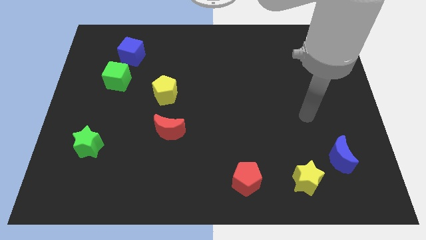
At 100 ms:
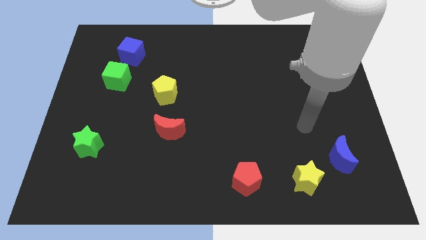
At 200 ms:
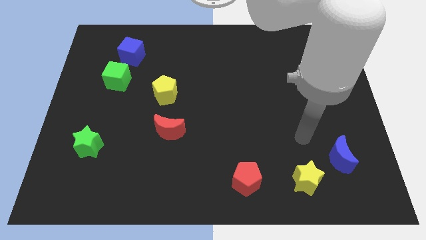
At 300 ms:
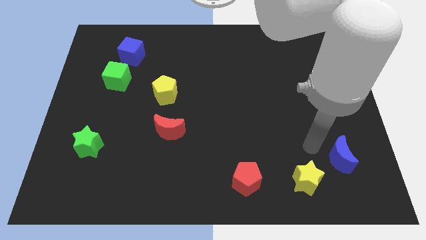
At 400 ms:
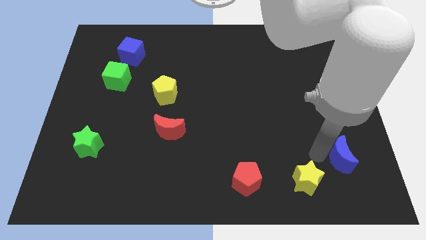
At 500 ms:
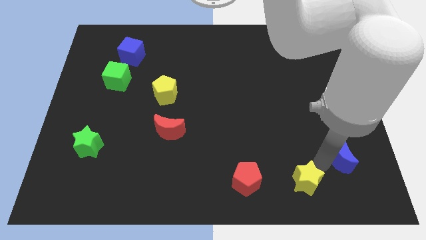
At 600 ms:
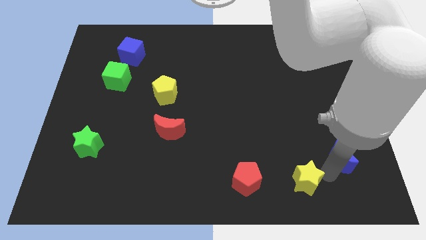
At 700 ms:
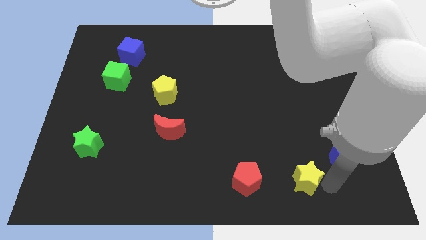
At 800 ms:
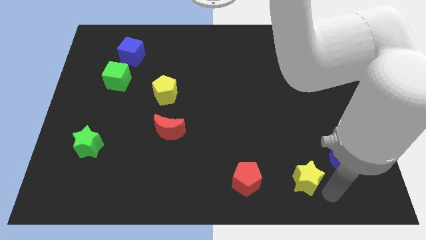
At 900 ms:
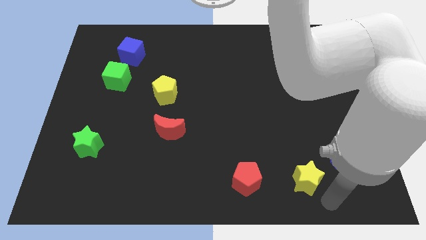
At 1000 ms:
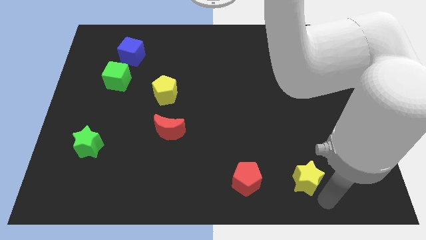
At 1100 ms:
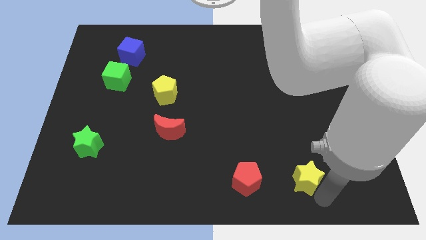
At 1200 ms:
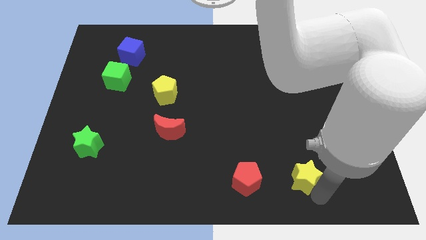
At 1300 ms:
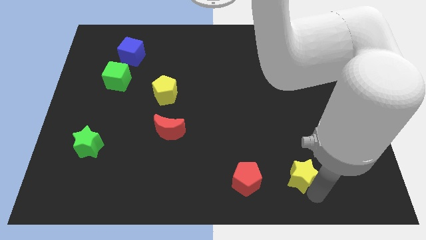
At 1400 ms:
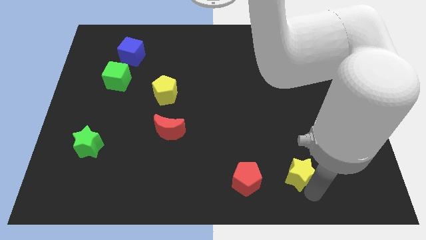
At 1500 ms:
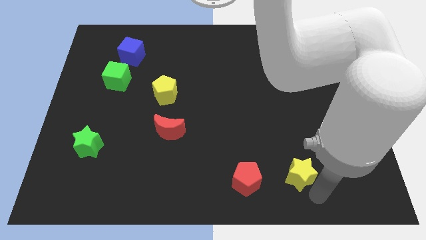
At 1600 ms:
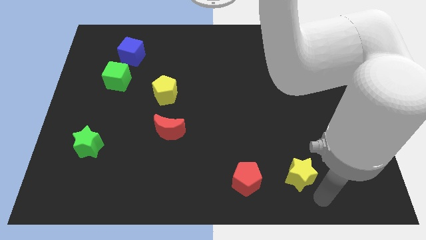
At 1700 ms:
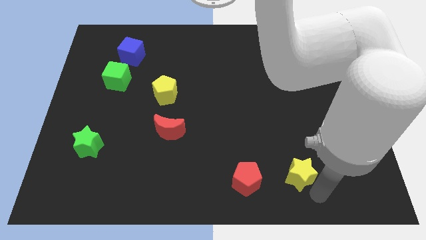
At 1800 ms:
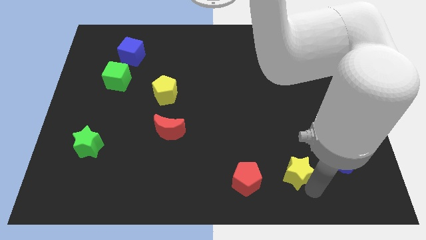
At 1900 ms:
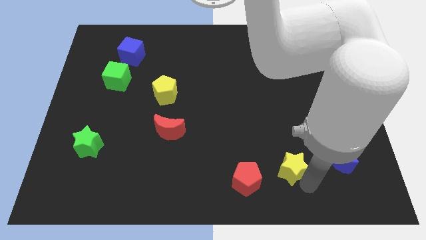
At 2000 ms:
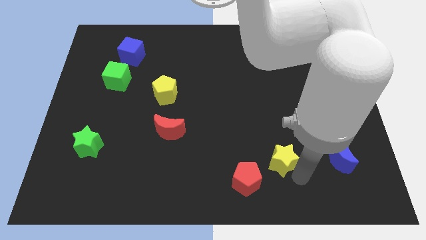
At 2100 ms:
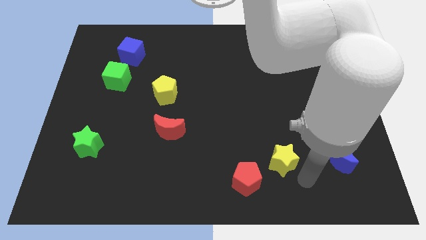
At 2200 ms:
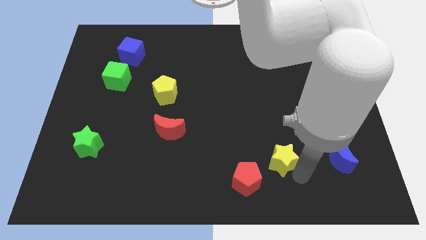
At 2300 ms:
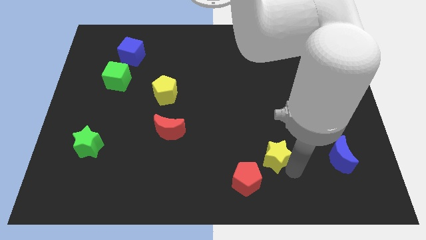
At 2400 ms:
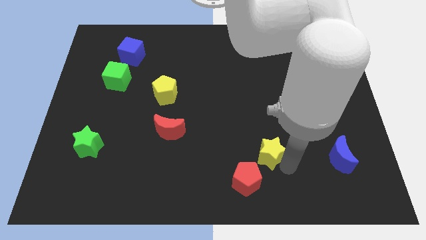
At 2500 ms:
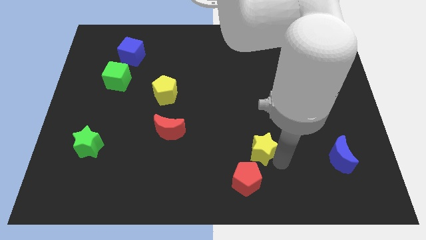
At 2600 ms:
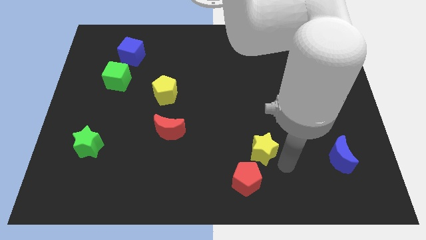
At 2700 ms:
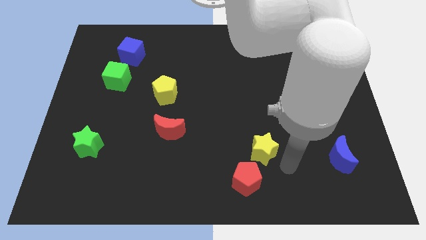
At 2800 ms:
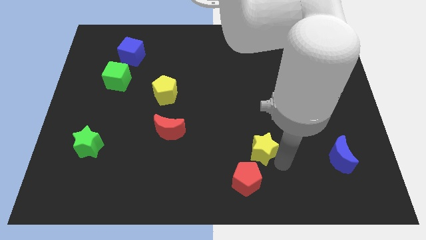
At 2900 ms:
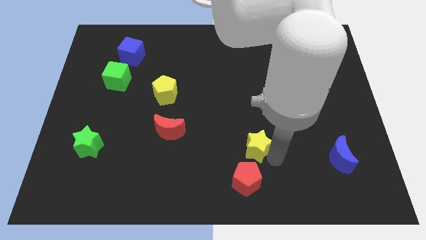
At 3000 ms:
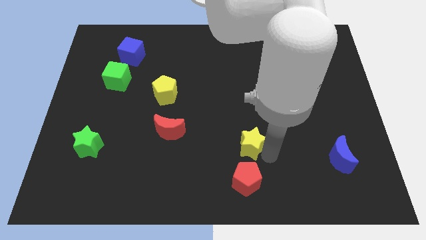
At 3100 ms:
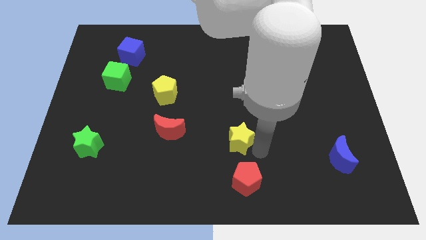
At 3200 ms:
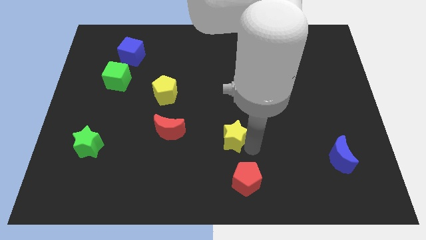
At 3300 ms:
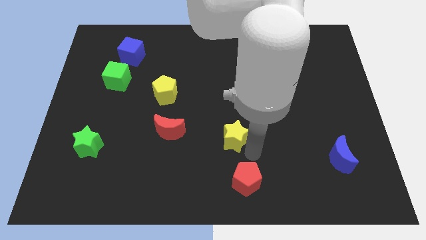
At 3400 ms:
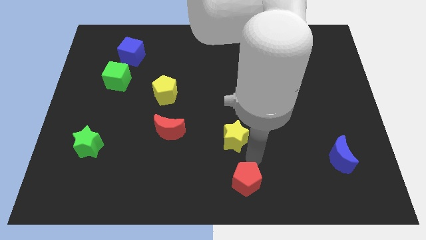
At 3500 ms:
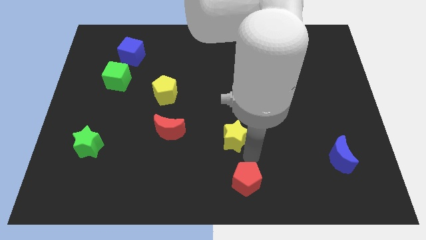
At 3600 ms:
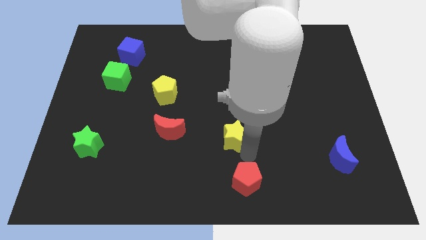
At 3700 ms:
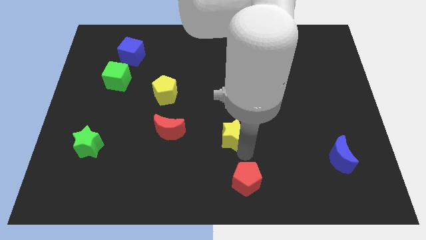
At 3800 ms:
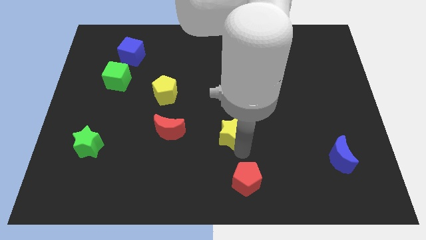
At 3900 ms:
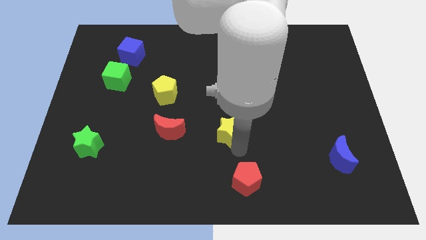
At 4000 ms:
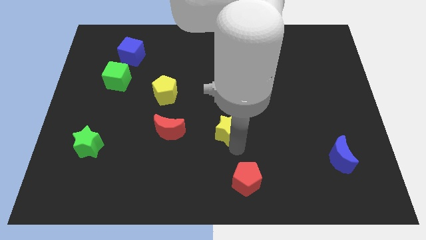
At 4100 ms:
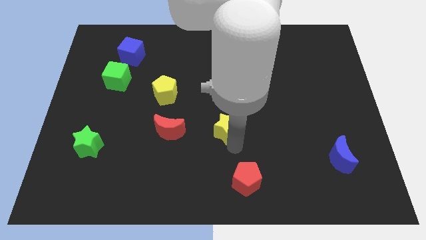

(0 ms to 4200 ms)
push the yellow star upwards and left diagonally

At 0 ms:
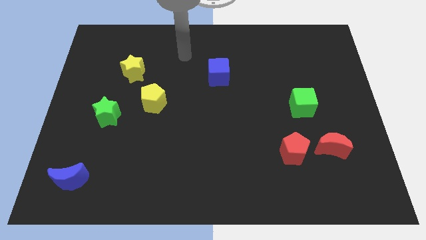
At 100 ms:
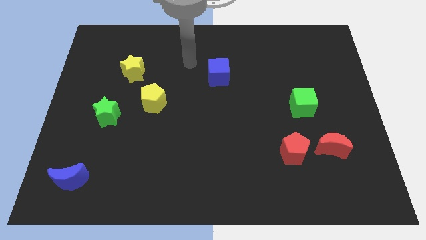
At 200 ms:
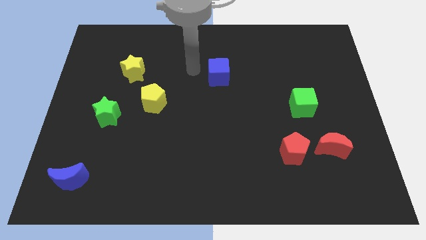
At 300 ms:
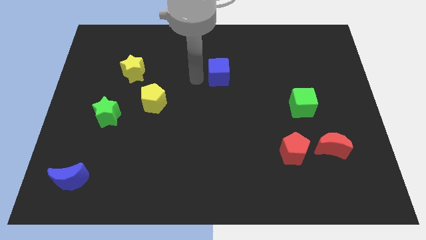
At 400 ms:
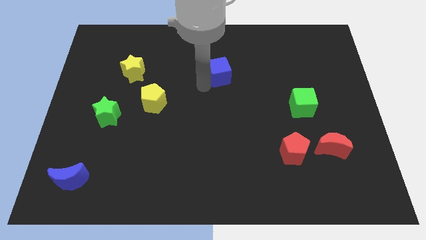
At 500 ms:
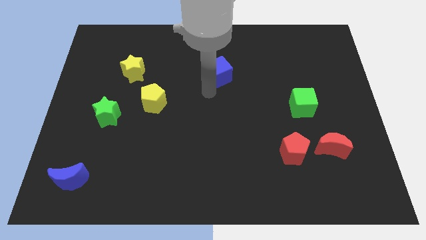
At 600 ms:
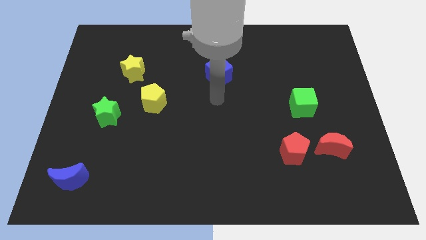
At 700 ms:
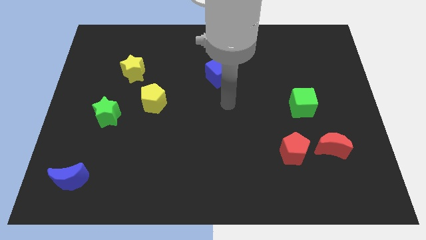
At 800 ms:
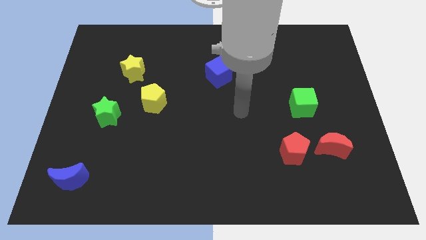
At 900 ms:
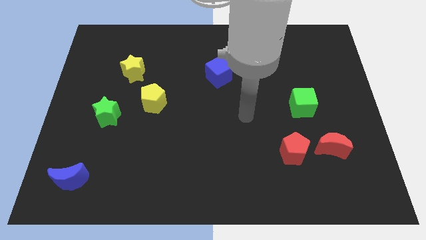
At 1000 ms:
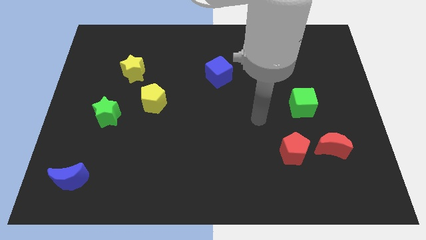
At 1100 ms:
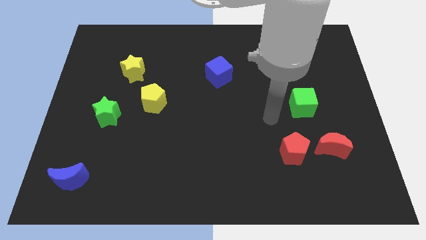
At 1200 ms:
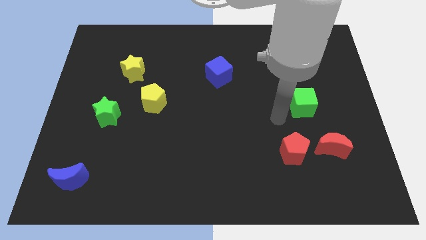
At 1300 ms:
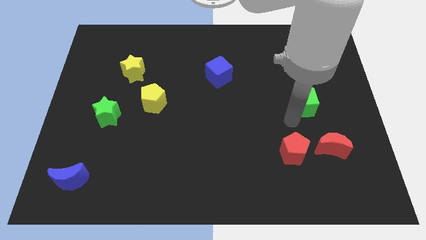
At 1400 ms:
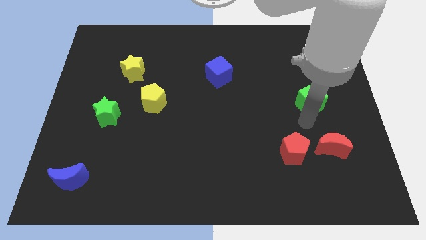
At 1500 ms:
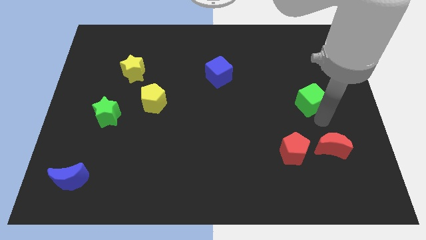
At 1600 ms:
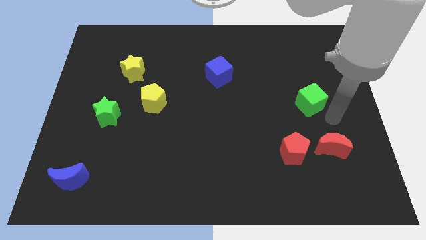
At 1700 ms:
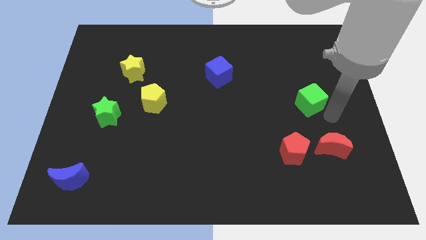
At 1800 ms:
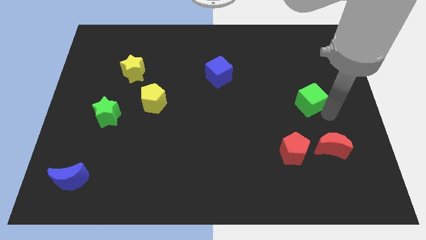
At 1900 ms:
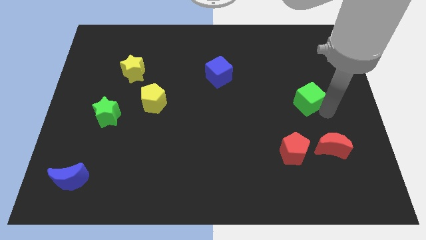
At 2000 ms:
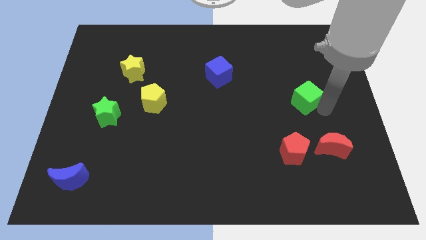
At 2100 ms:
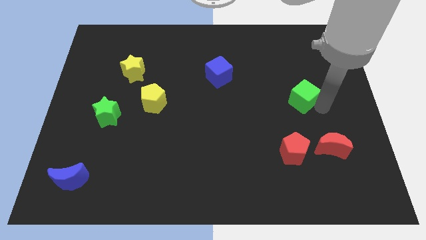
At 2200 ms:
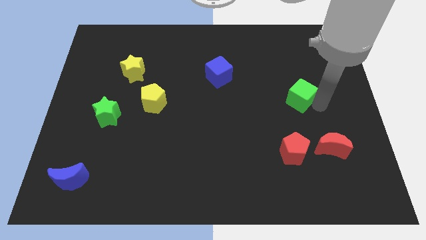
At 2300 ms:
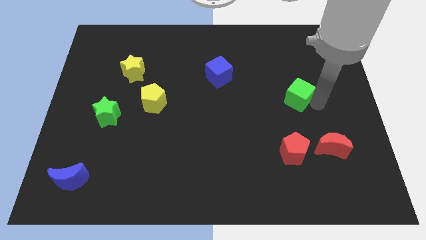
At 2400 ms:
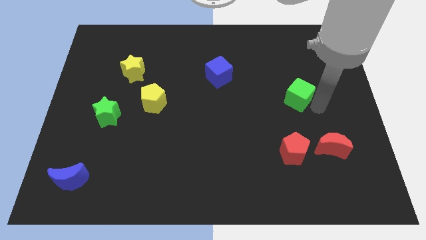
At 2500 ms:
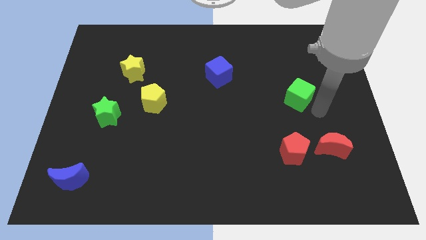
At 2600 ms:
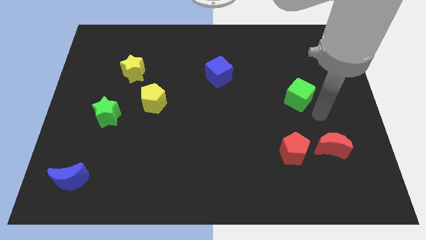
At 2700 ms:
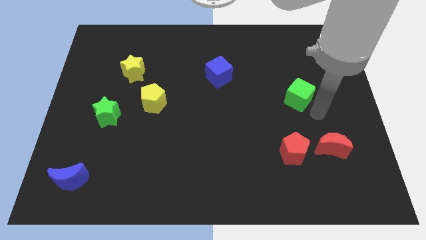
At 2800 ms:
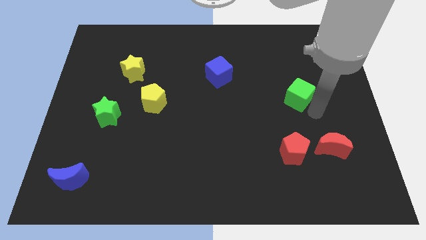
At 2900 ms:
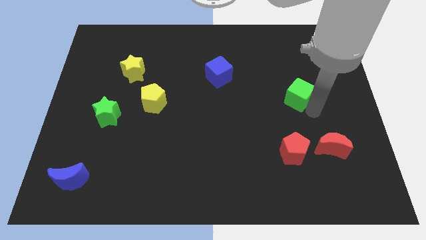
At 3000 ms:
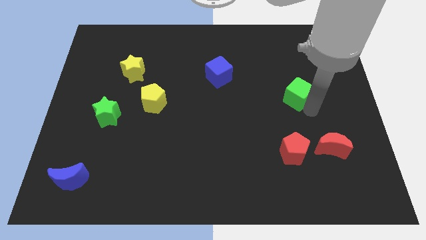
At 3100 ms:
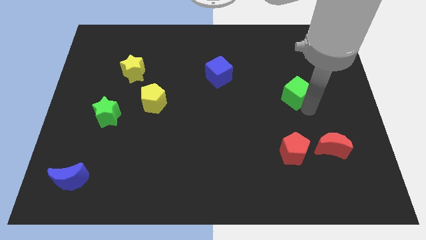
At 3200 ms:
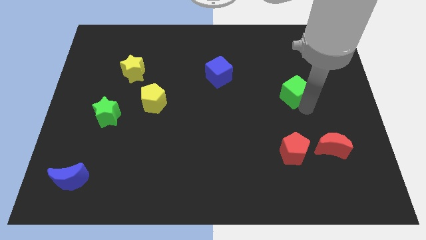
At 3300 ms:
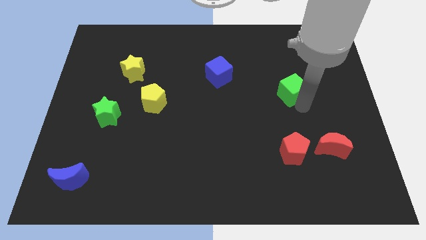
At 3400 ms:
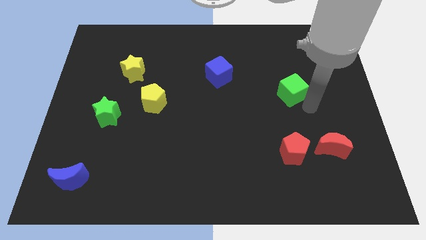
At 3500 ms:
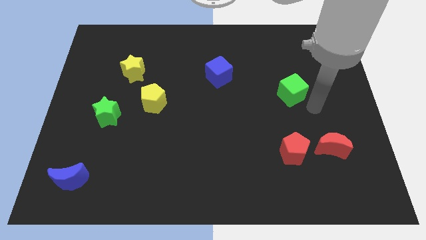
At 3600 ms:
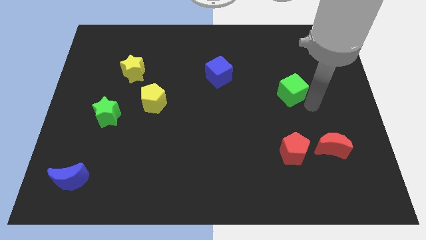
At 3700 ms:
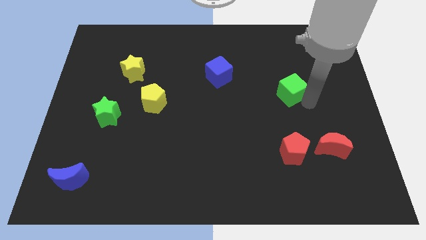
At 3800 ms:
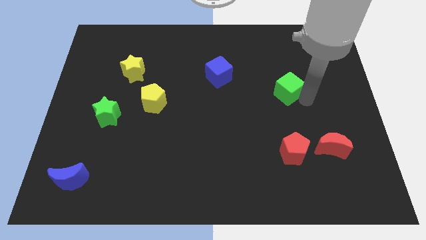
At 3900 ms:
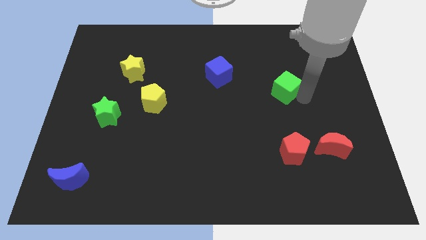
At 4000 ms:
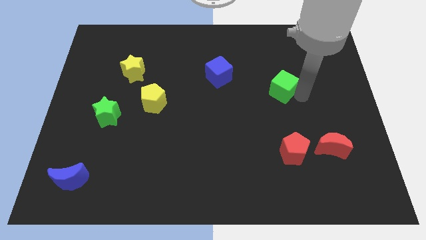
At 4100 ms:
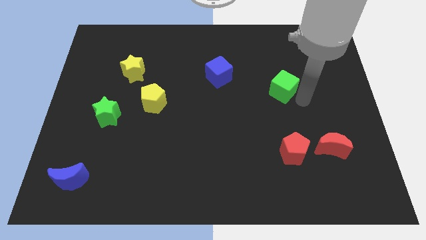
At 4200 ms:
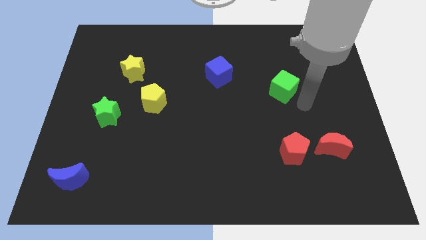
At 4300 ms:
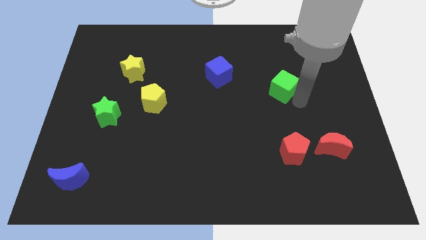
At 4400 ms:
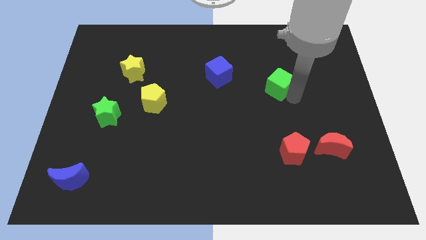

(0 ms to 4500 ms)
slightly slide the green cube upwards and left diagonally

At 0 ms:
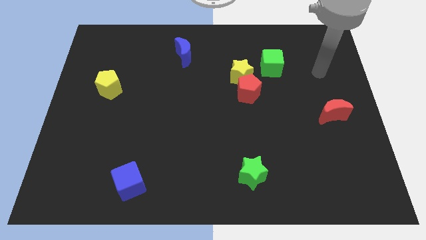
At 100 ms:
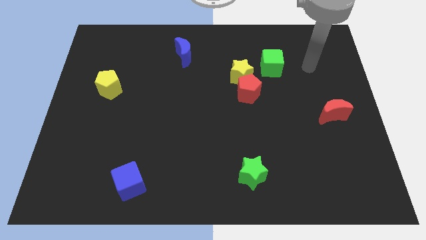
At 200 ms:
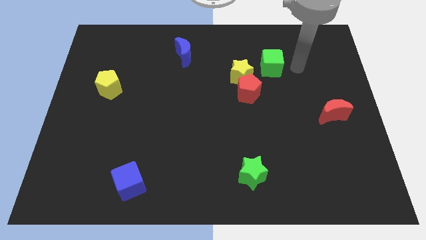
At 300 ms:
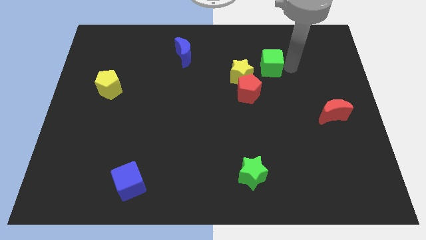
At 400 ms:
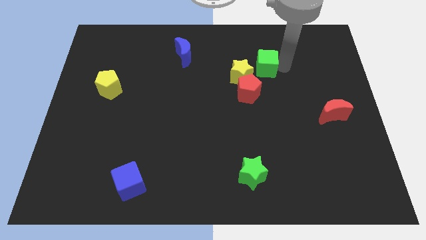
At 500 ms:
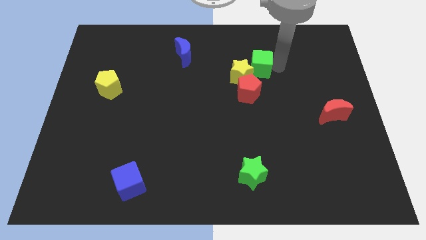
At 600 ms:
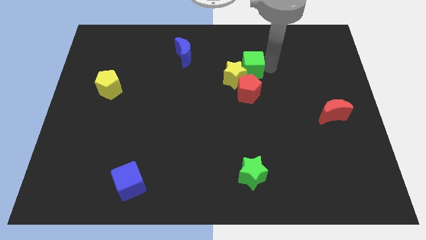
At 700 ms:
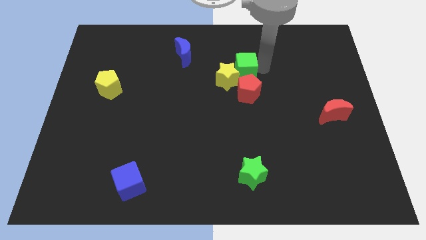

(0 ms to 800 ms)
move the green cube a bit left
